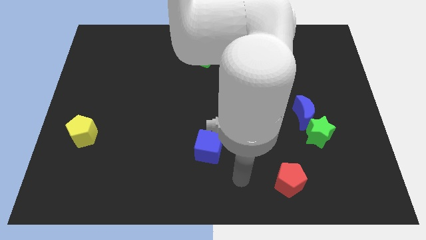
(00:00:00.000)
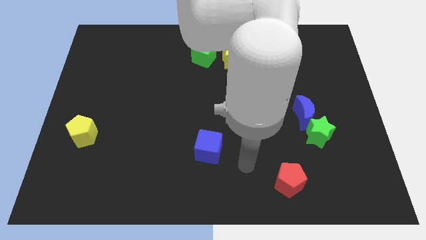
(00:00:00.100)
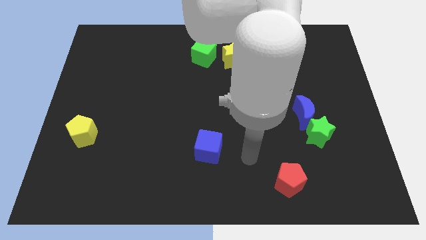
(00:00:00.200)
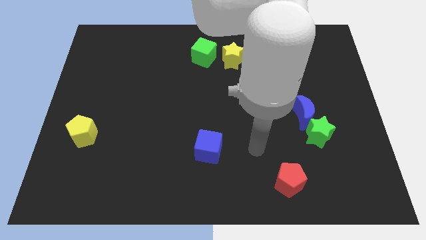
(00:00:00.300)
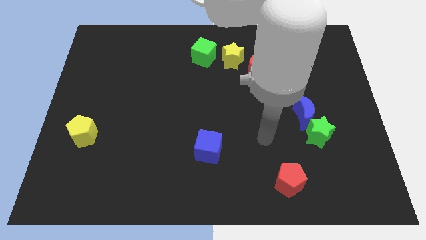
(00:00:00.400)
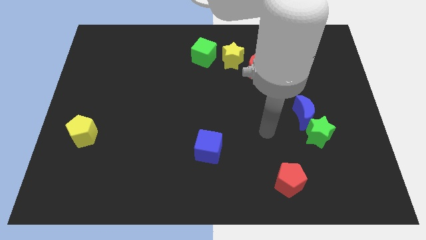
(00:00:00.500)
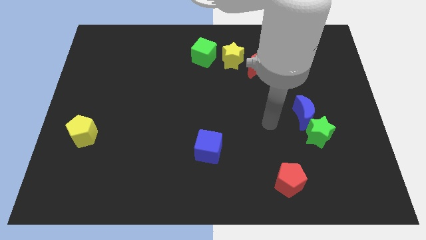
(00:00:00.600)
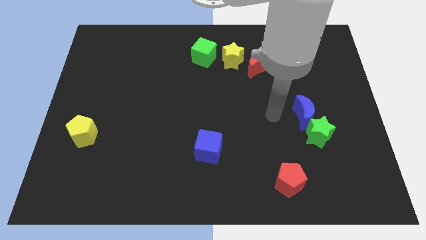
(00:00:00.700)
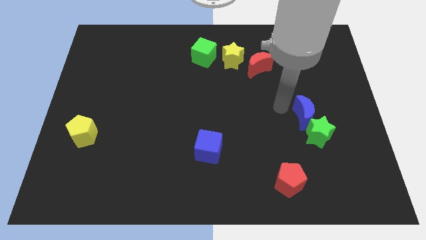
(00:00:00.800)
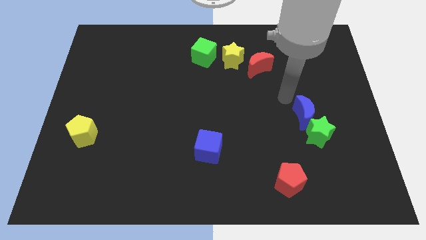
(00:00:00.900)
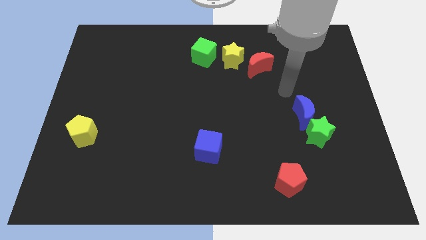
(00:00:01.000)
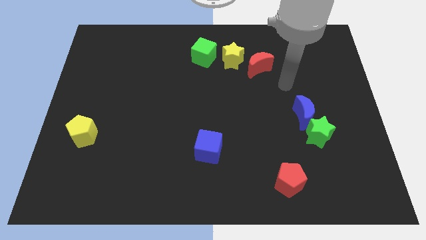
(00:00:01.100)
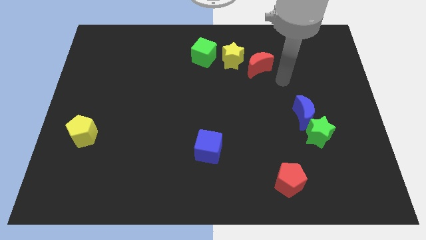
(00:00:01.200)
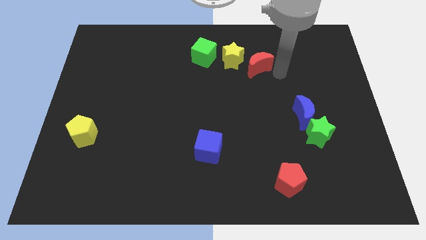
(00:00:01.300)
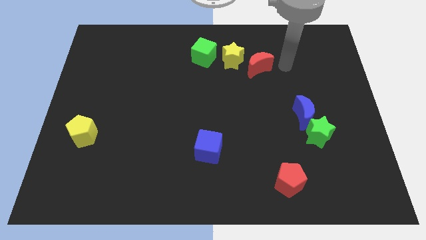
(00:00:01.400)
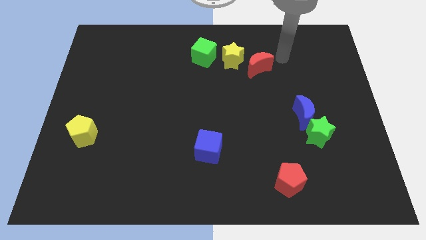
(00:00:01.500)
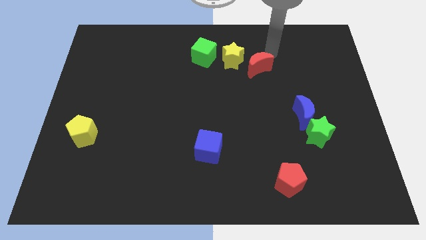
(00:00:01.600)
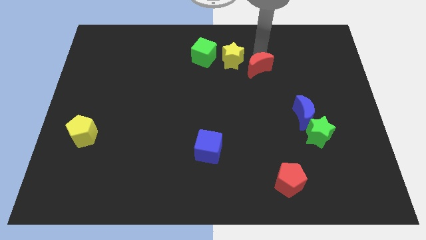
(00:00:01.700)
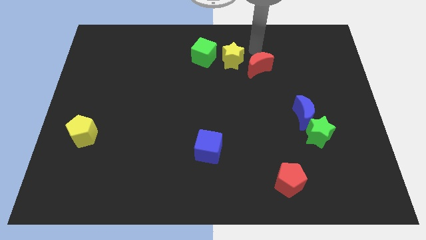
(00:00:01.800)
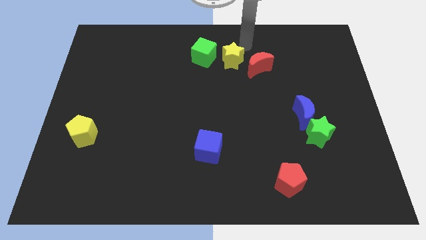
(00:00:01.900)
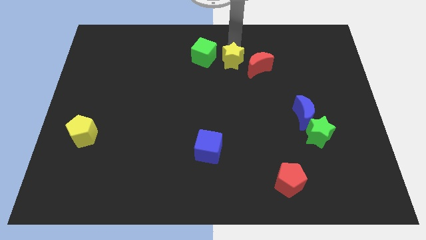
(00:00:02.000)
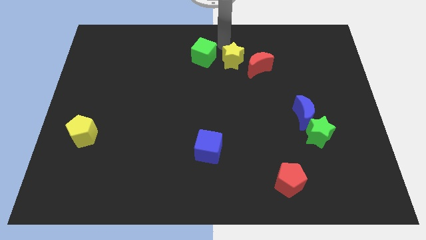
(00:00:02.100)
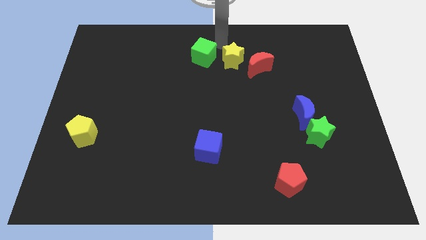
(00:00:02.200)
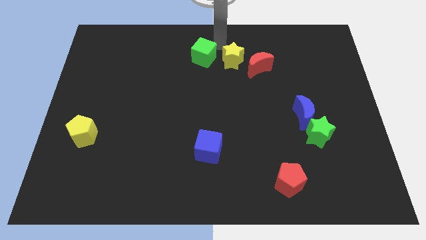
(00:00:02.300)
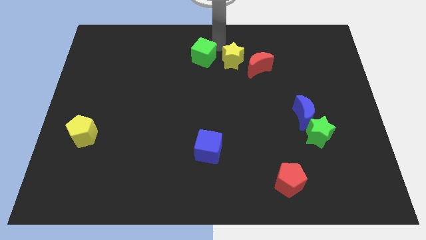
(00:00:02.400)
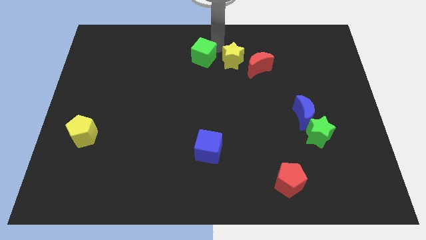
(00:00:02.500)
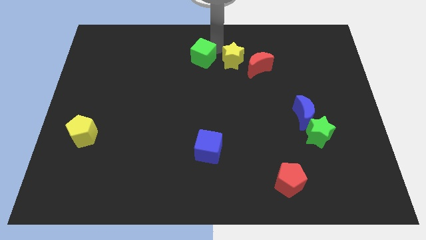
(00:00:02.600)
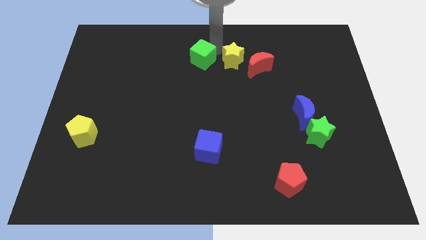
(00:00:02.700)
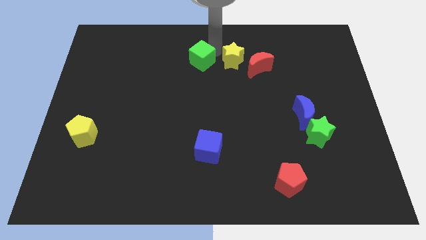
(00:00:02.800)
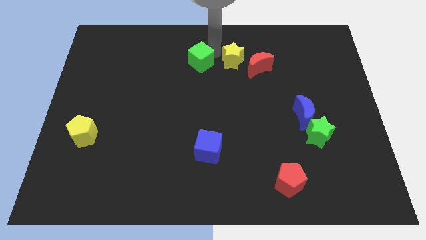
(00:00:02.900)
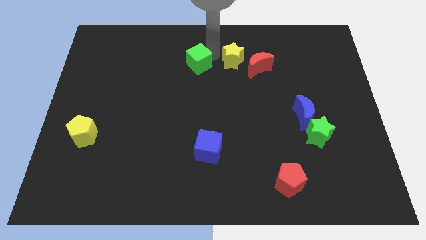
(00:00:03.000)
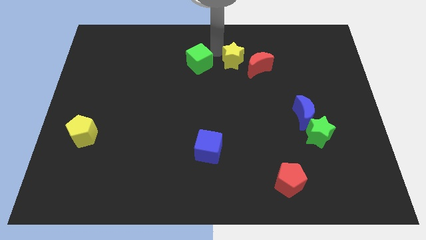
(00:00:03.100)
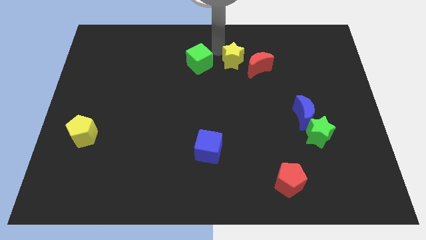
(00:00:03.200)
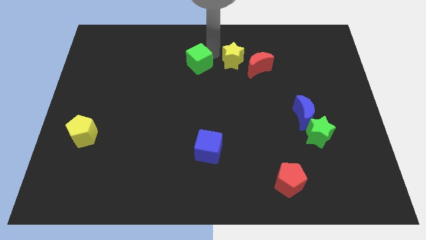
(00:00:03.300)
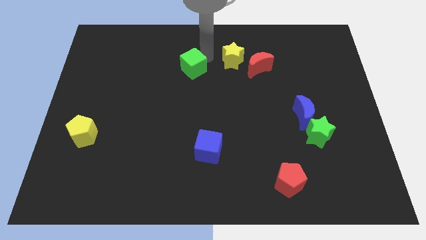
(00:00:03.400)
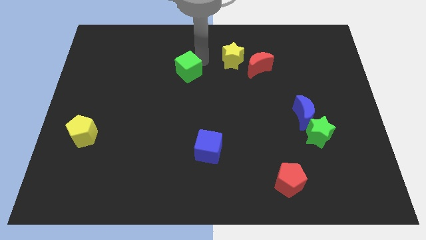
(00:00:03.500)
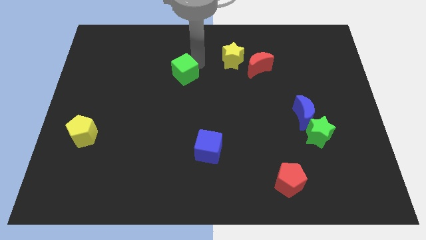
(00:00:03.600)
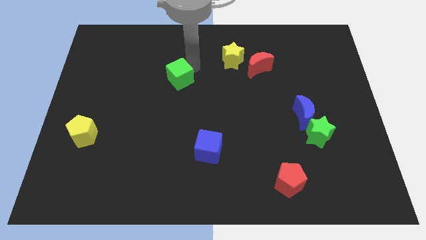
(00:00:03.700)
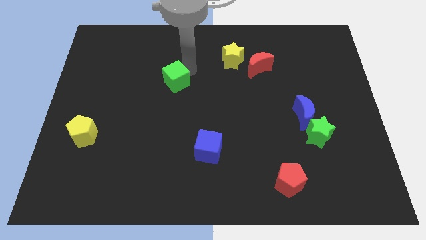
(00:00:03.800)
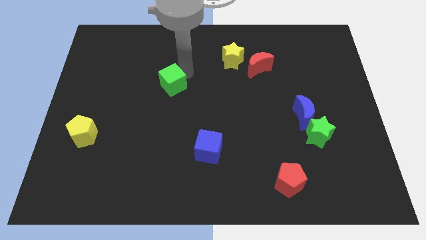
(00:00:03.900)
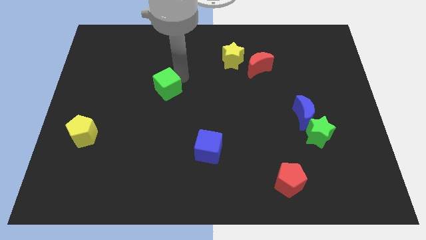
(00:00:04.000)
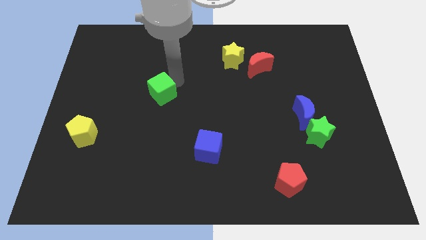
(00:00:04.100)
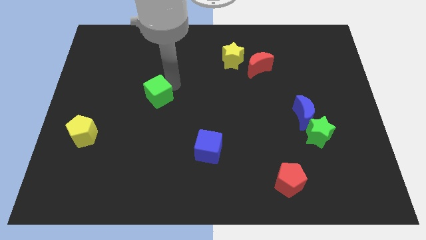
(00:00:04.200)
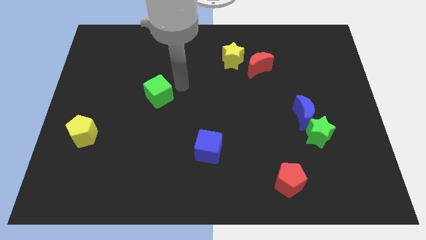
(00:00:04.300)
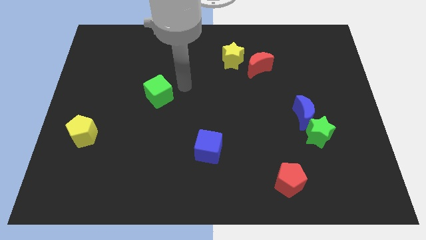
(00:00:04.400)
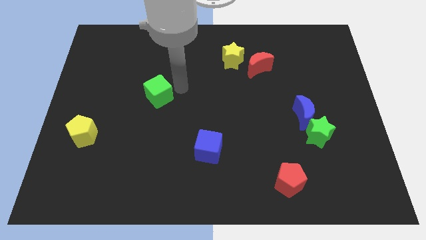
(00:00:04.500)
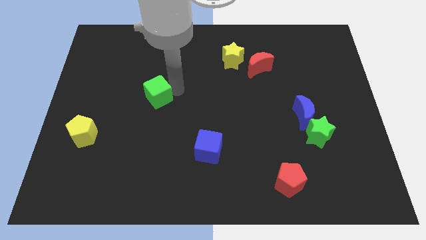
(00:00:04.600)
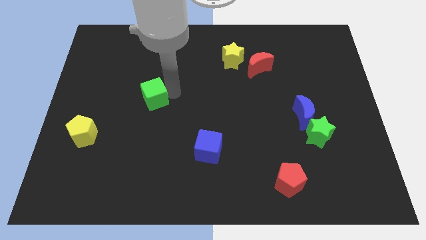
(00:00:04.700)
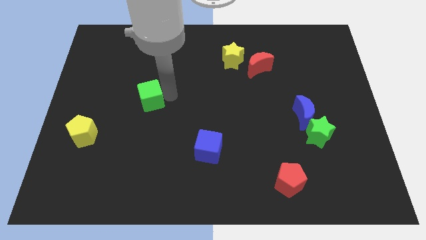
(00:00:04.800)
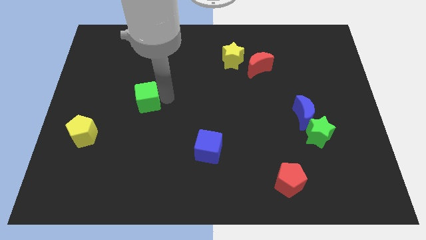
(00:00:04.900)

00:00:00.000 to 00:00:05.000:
slide the green cube diagonally downwards and to the left

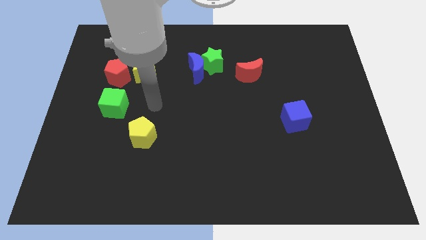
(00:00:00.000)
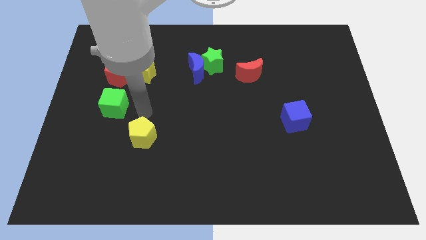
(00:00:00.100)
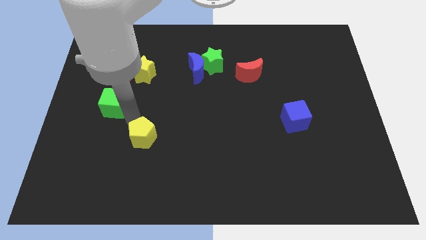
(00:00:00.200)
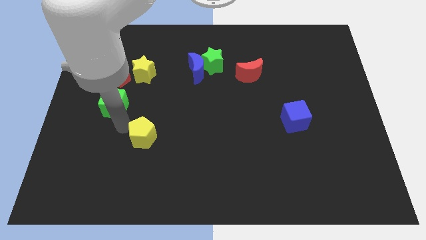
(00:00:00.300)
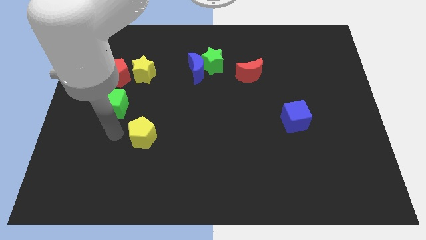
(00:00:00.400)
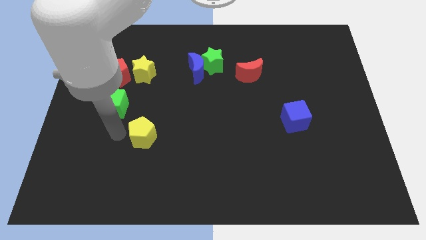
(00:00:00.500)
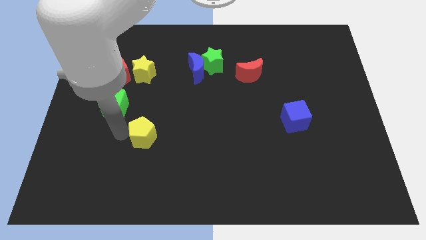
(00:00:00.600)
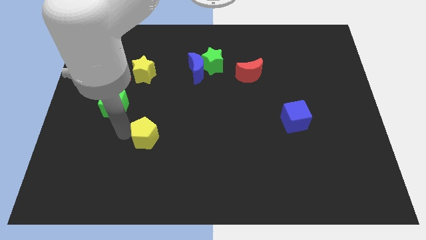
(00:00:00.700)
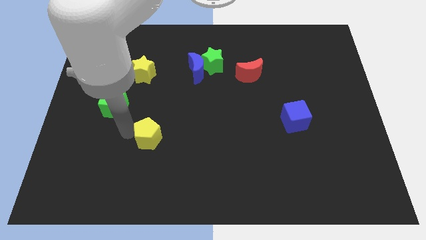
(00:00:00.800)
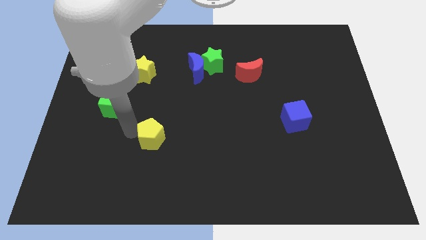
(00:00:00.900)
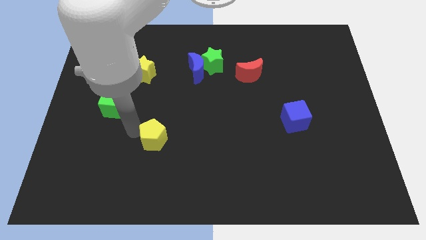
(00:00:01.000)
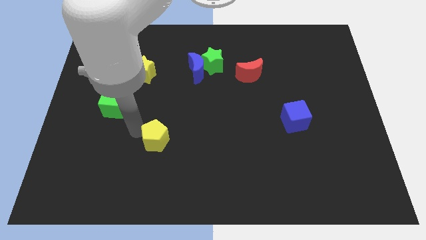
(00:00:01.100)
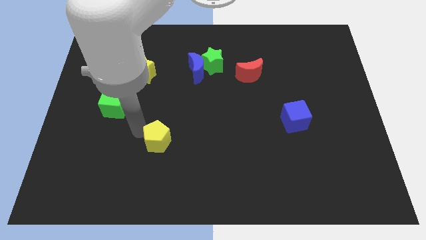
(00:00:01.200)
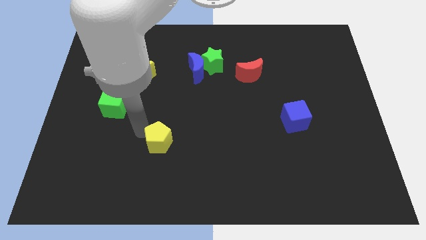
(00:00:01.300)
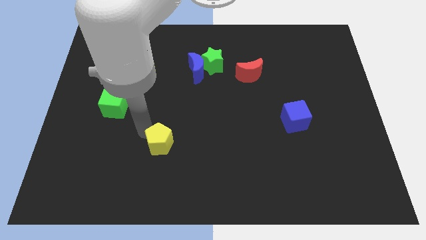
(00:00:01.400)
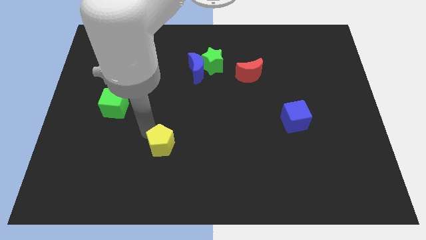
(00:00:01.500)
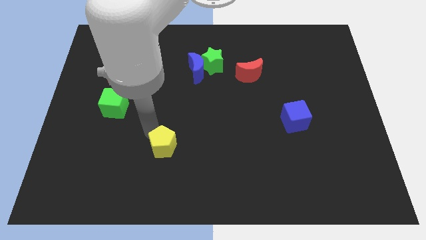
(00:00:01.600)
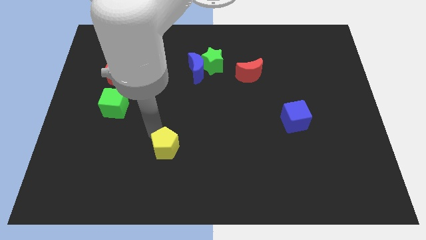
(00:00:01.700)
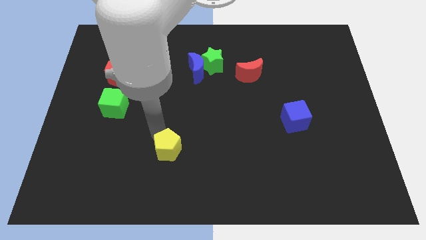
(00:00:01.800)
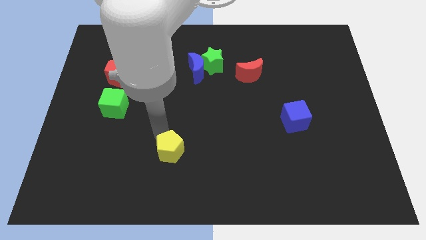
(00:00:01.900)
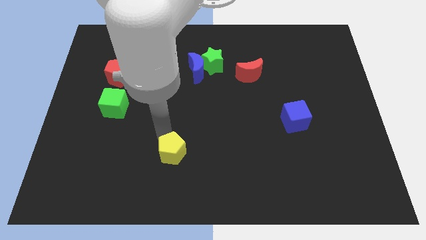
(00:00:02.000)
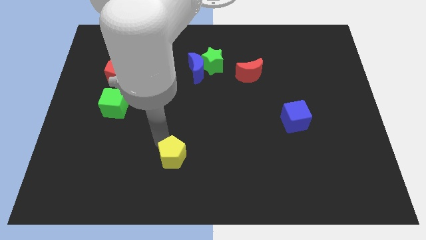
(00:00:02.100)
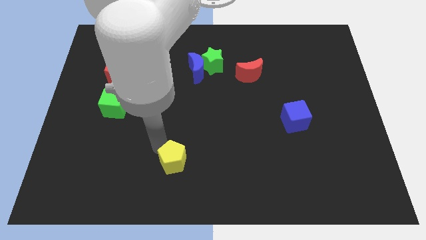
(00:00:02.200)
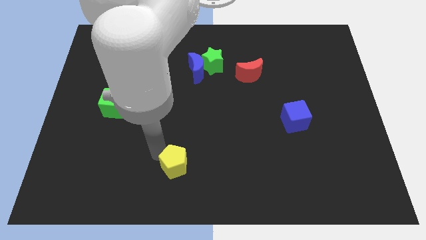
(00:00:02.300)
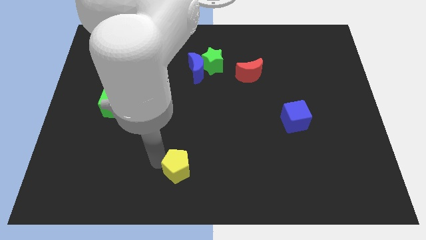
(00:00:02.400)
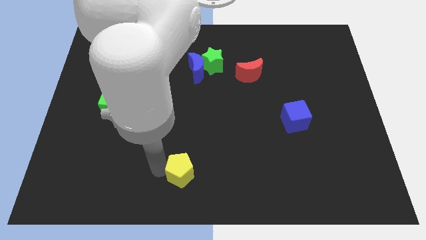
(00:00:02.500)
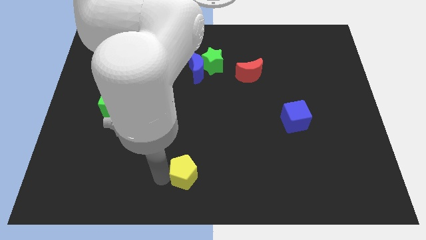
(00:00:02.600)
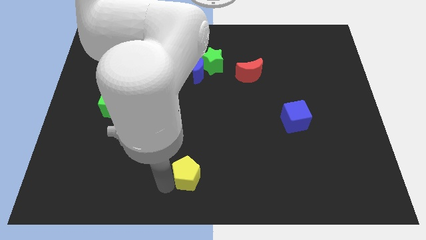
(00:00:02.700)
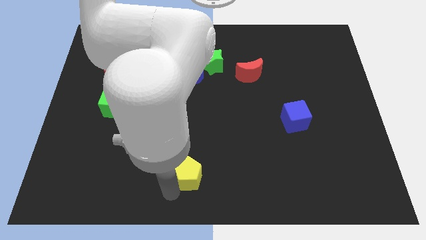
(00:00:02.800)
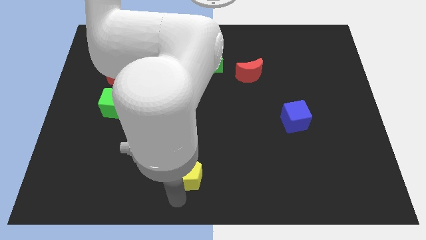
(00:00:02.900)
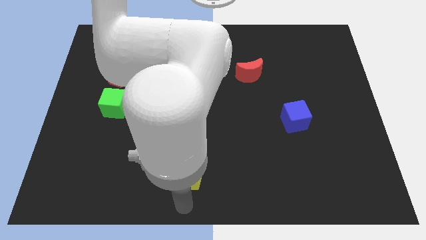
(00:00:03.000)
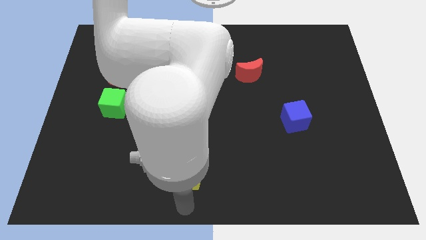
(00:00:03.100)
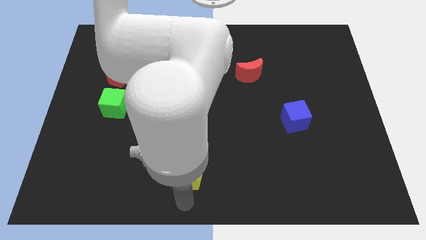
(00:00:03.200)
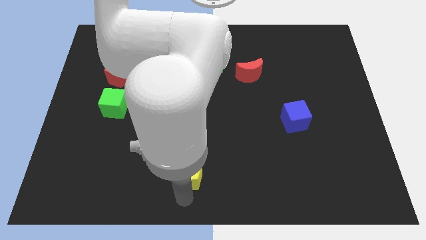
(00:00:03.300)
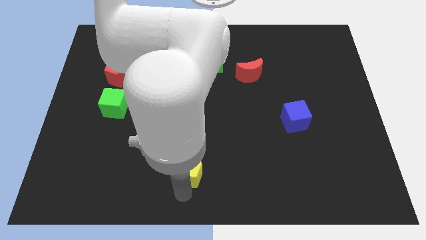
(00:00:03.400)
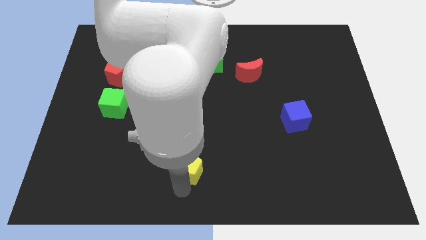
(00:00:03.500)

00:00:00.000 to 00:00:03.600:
push the yellow pentagon slightly to the right
